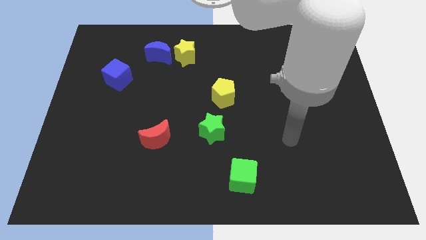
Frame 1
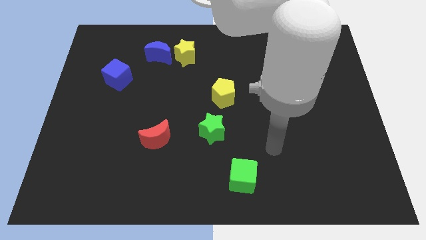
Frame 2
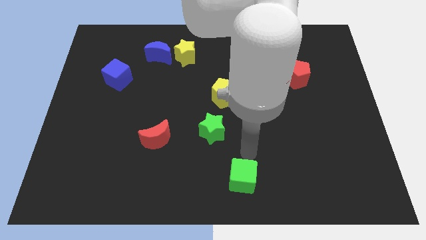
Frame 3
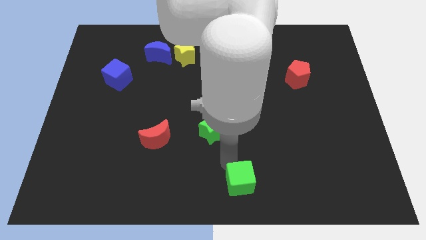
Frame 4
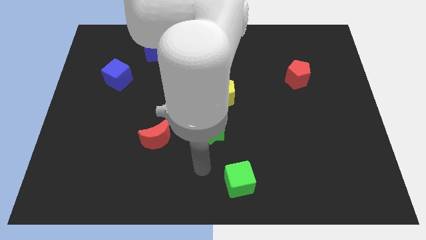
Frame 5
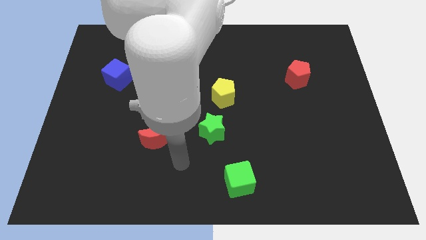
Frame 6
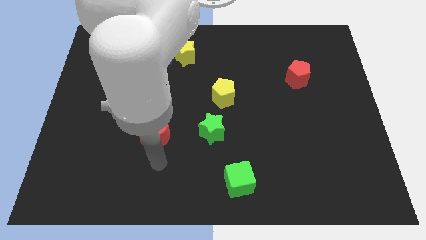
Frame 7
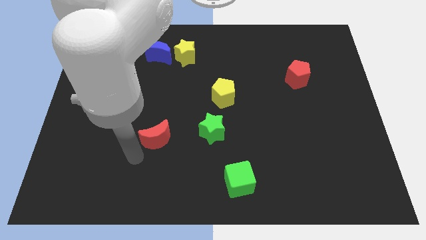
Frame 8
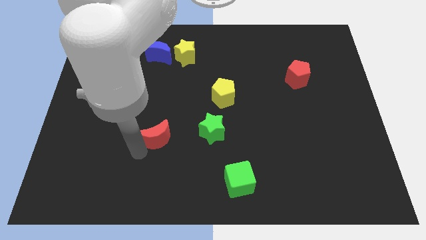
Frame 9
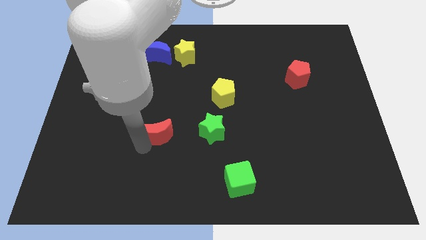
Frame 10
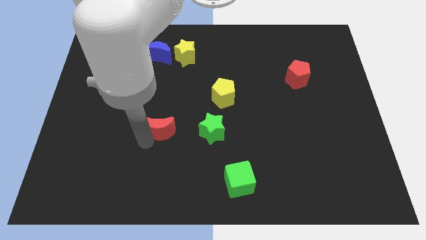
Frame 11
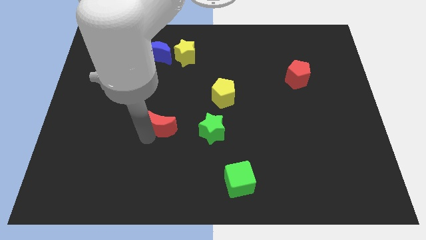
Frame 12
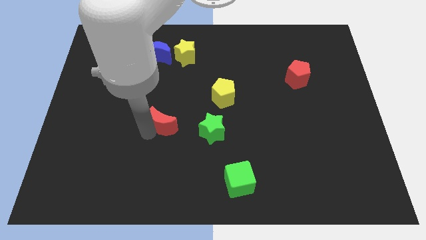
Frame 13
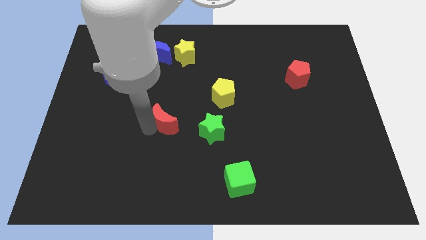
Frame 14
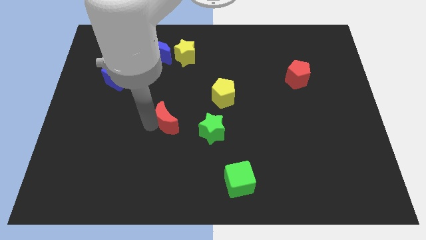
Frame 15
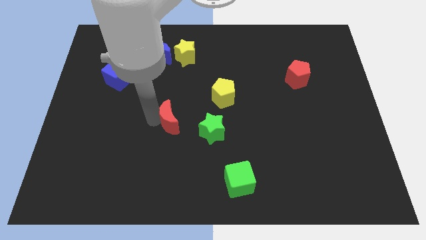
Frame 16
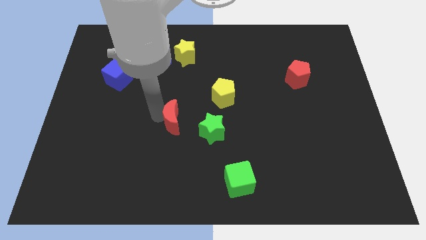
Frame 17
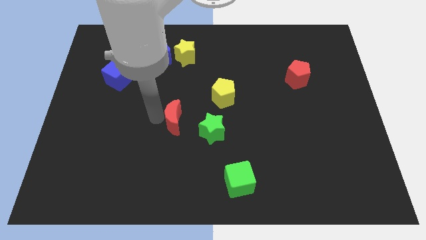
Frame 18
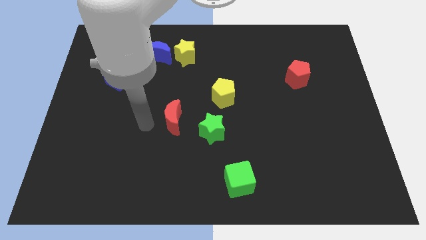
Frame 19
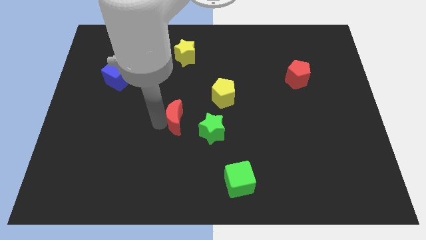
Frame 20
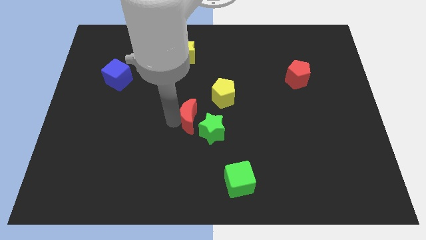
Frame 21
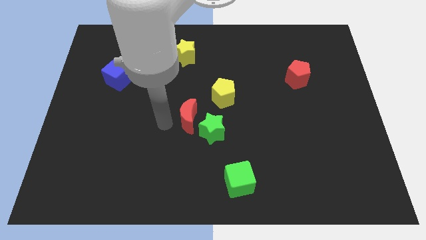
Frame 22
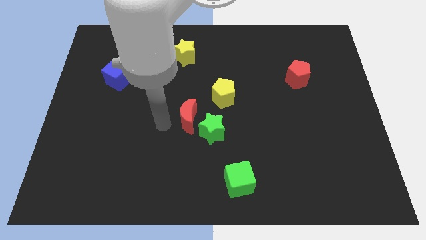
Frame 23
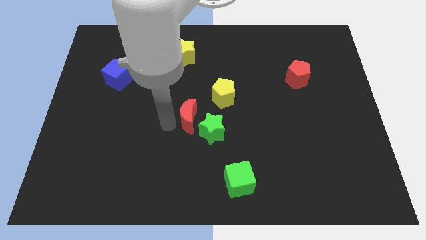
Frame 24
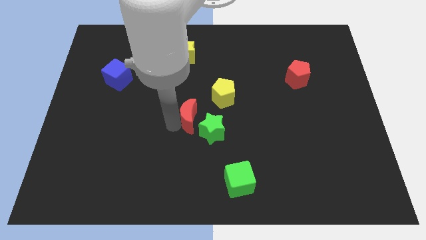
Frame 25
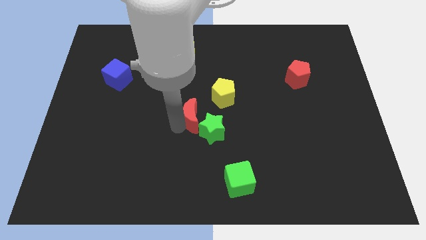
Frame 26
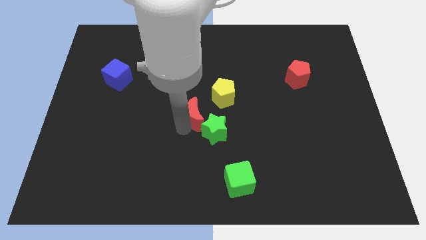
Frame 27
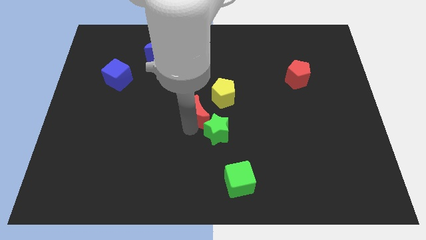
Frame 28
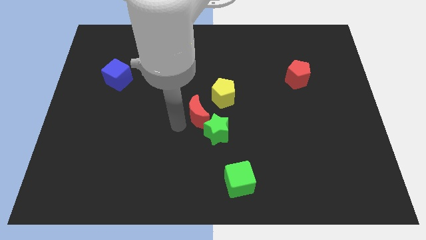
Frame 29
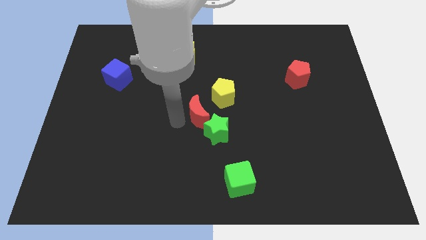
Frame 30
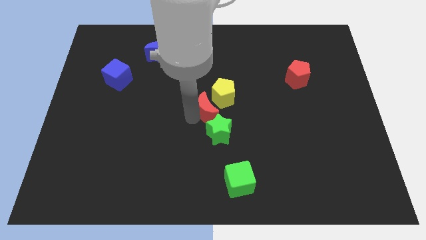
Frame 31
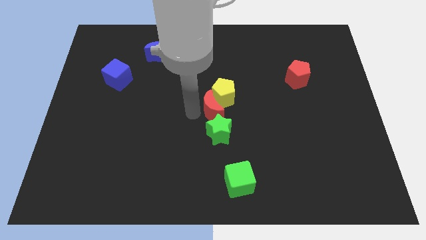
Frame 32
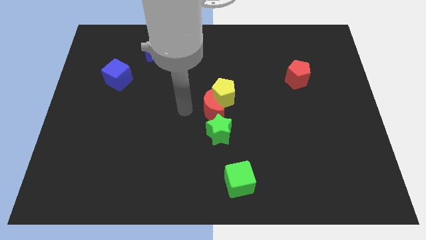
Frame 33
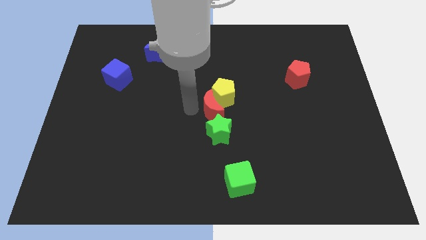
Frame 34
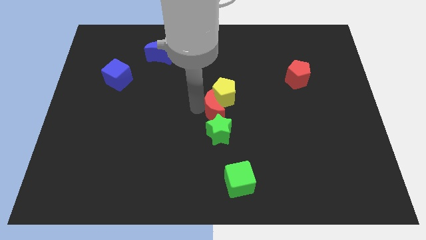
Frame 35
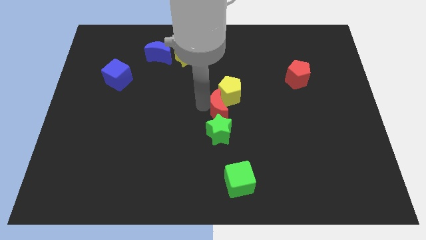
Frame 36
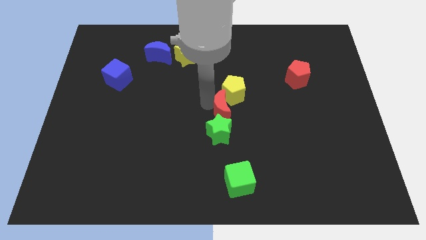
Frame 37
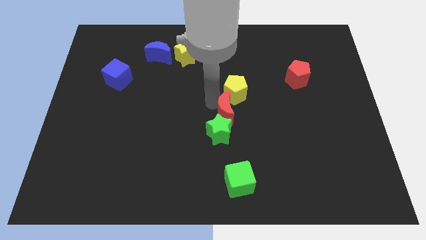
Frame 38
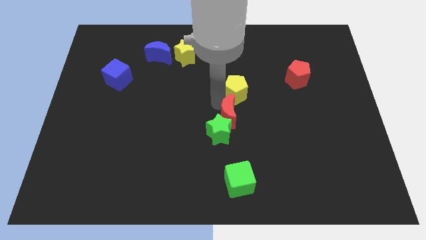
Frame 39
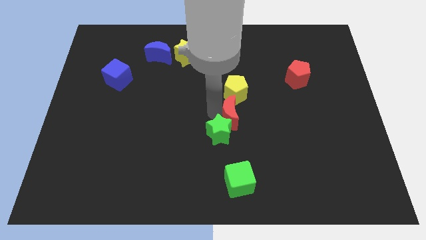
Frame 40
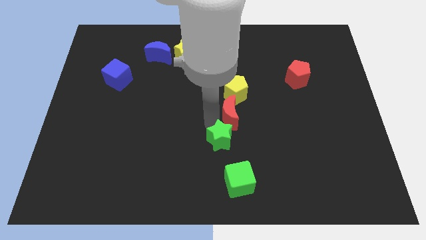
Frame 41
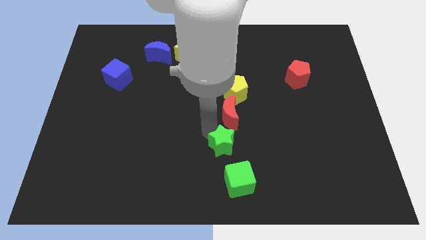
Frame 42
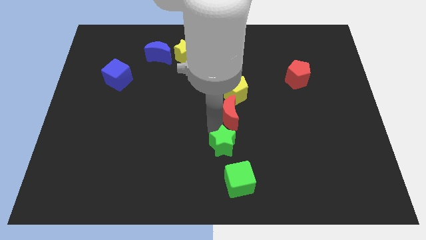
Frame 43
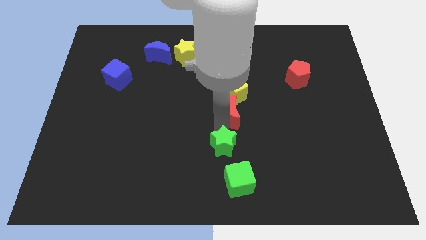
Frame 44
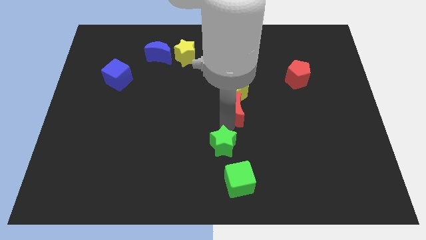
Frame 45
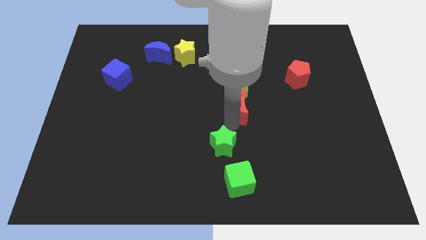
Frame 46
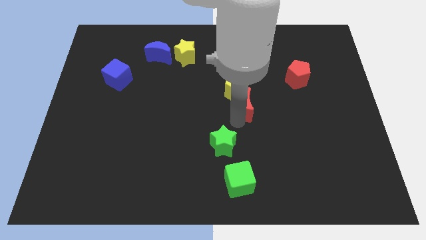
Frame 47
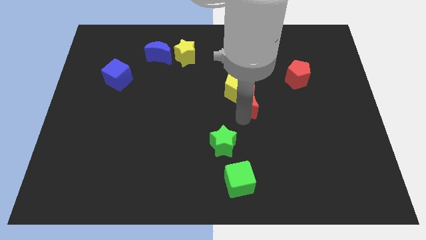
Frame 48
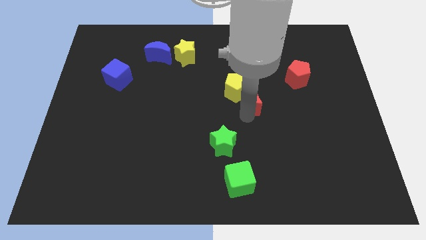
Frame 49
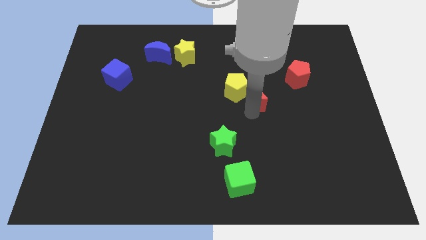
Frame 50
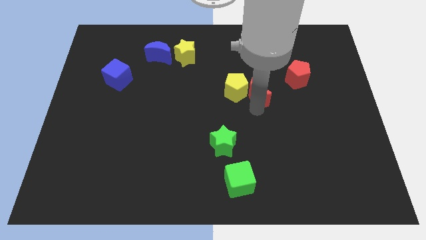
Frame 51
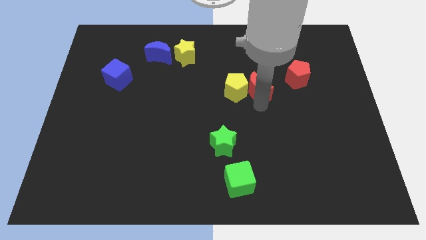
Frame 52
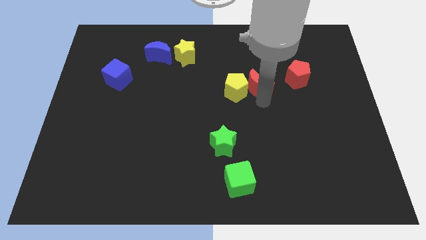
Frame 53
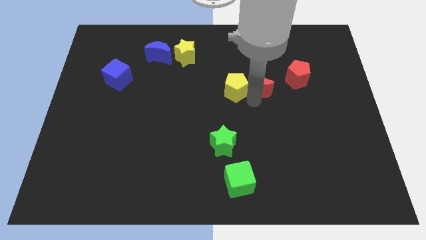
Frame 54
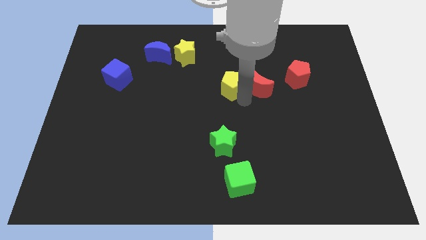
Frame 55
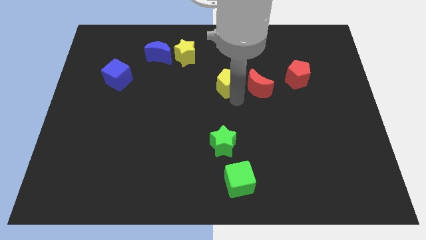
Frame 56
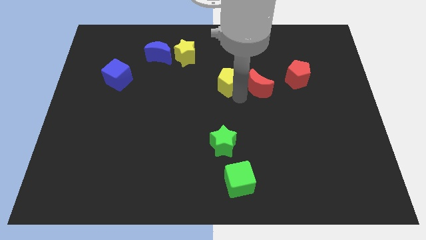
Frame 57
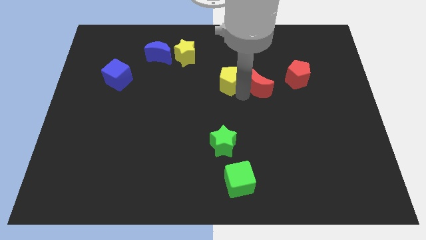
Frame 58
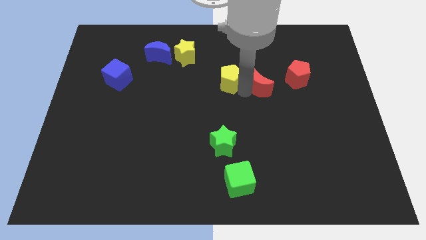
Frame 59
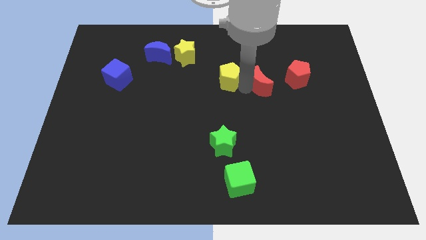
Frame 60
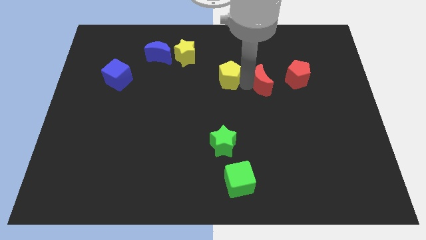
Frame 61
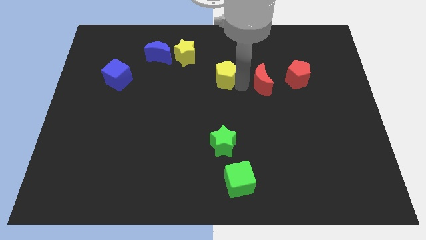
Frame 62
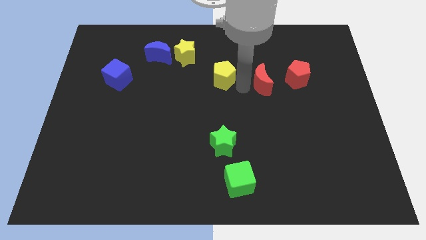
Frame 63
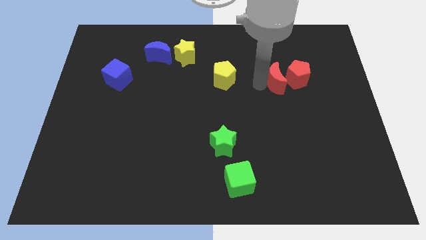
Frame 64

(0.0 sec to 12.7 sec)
put the red moon next to the red pentagon

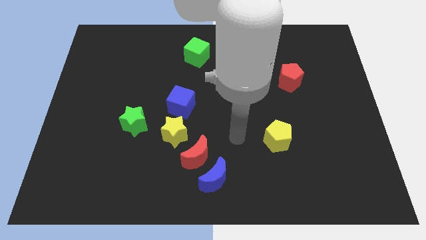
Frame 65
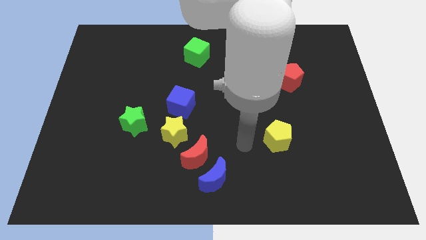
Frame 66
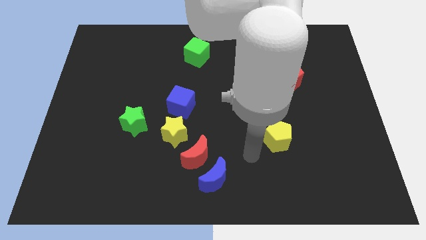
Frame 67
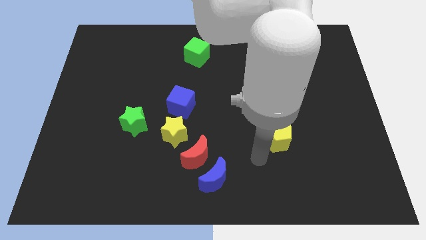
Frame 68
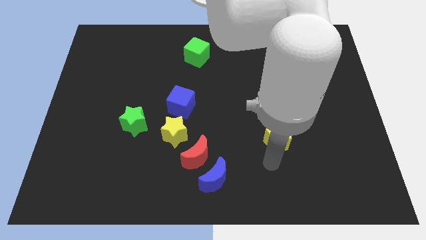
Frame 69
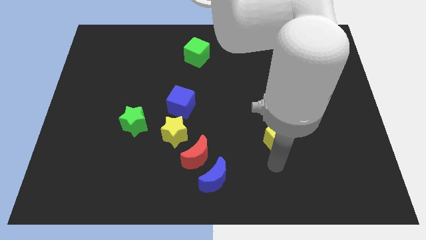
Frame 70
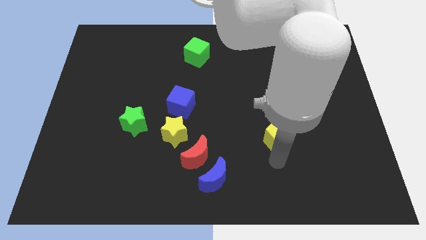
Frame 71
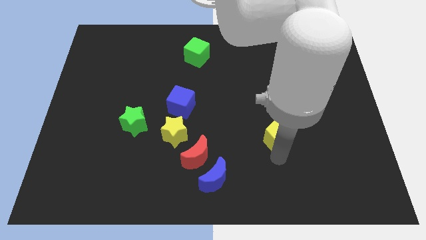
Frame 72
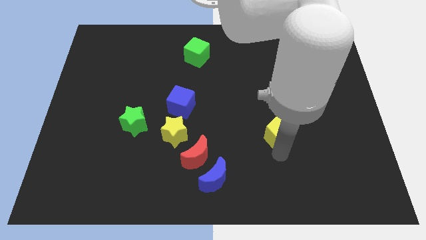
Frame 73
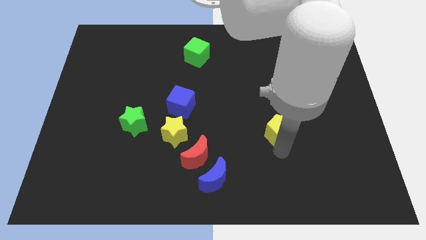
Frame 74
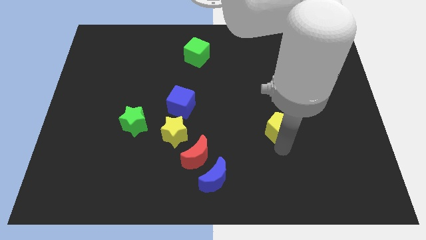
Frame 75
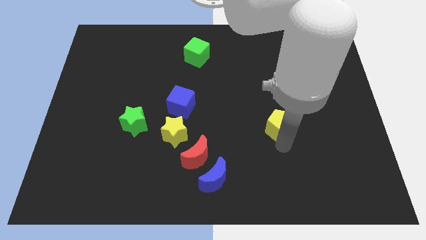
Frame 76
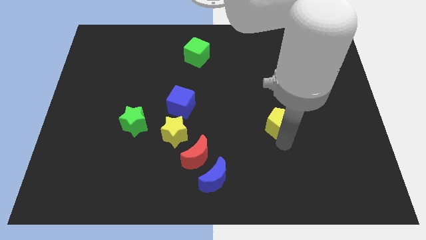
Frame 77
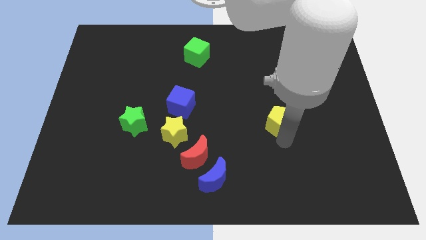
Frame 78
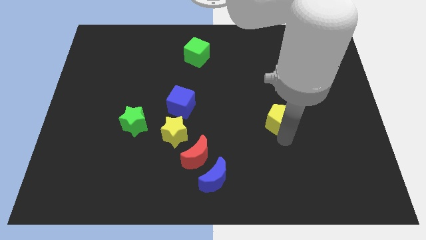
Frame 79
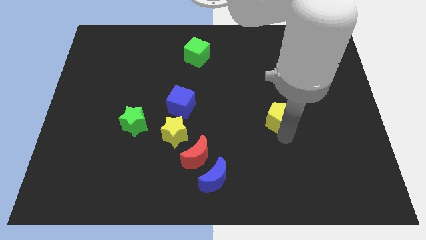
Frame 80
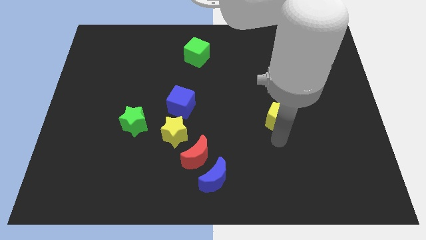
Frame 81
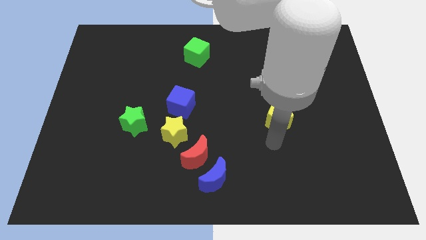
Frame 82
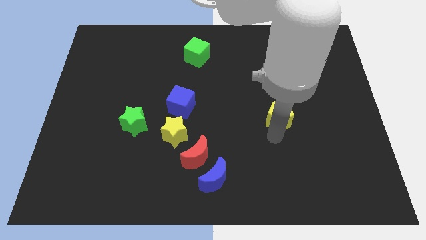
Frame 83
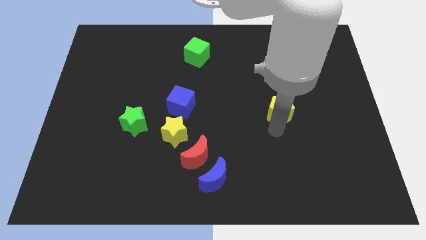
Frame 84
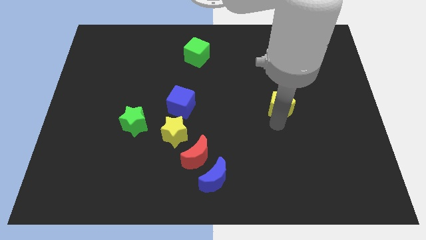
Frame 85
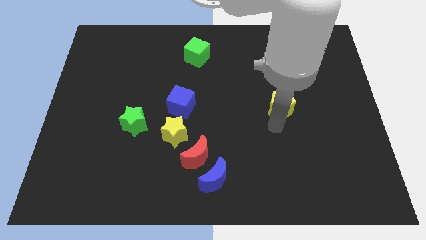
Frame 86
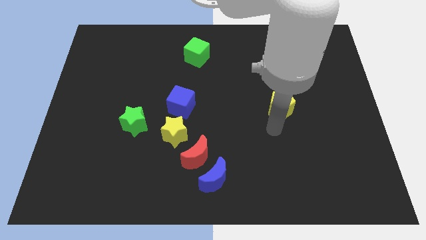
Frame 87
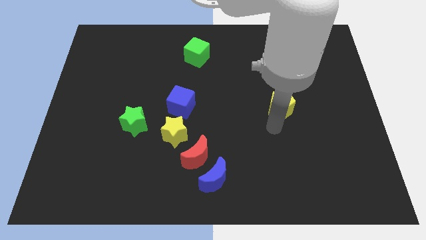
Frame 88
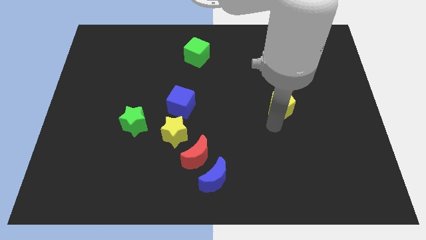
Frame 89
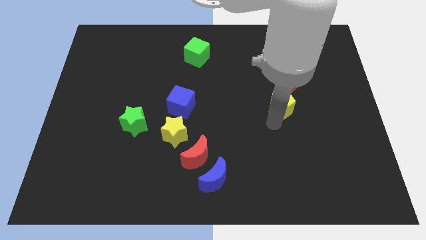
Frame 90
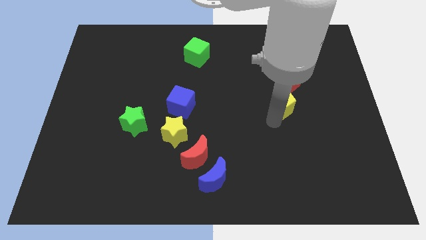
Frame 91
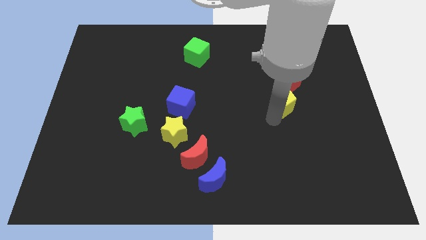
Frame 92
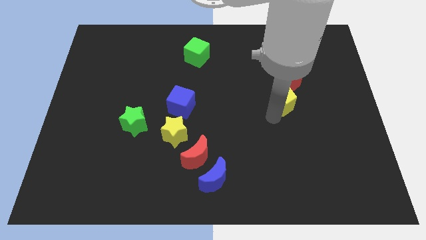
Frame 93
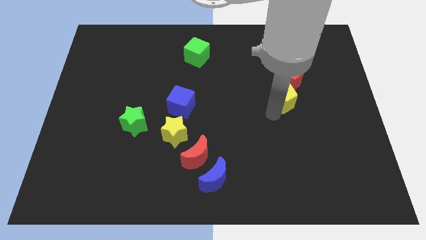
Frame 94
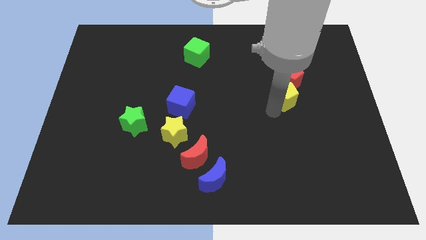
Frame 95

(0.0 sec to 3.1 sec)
put the yellow pentagon next to the red pentagon
